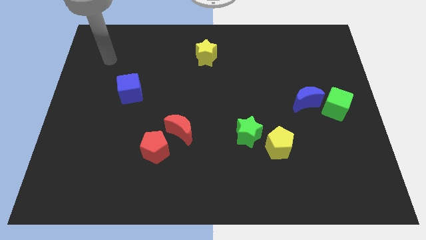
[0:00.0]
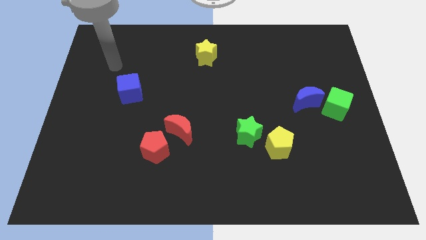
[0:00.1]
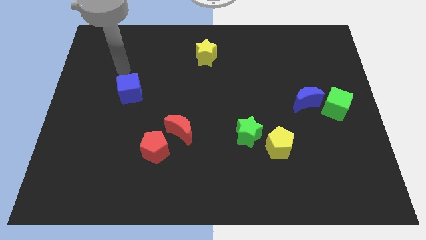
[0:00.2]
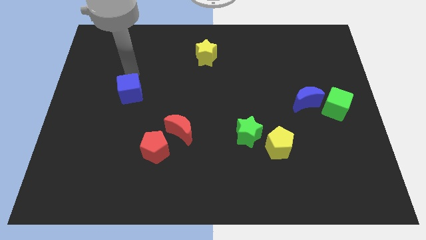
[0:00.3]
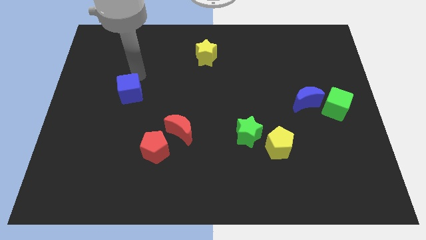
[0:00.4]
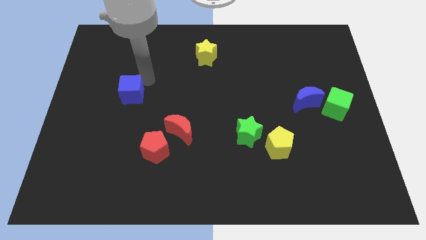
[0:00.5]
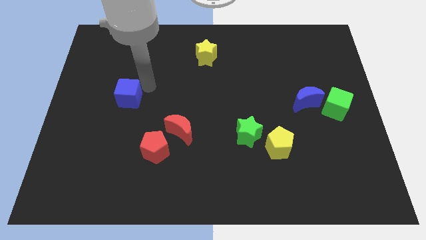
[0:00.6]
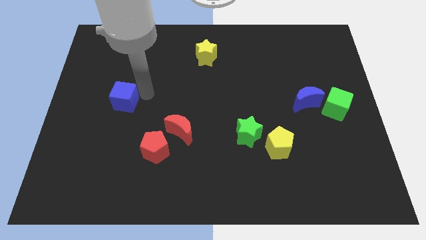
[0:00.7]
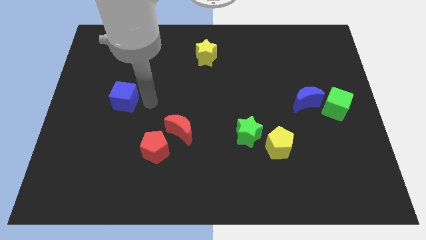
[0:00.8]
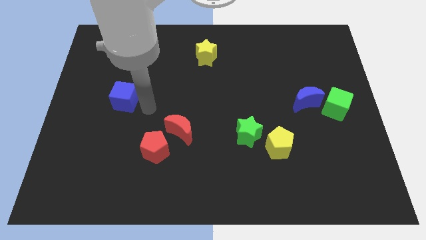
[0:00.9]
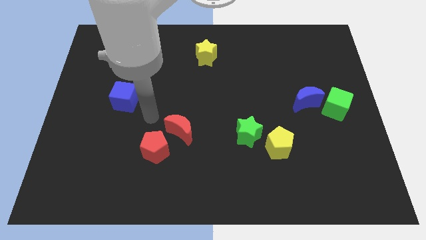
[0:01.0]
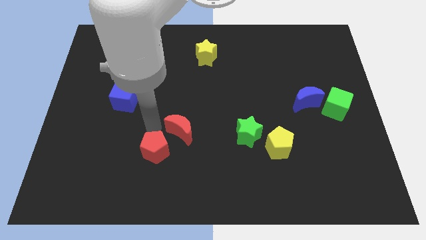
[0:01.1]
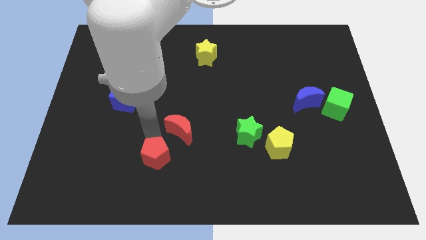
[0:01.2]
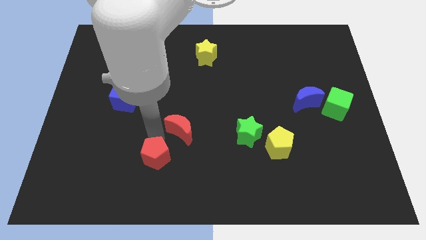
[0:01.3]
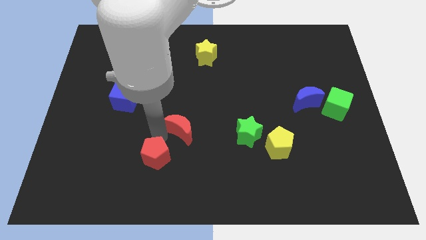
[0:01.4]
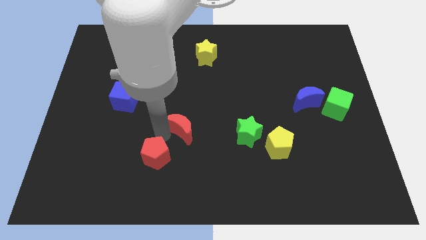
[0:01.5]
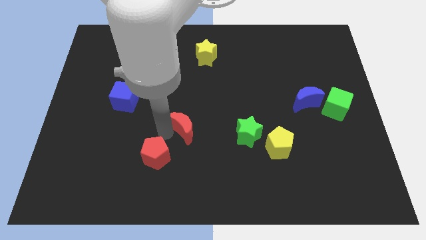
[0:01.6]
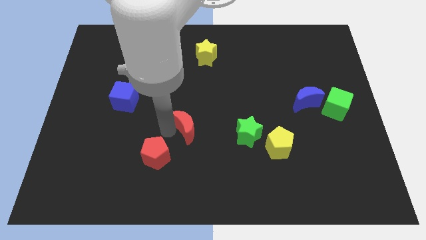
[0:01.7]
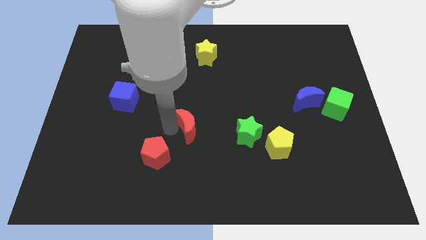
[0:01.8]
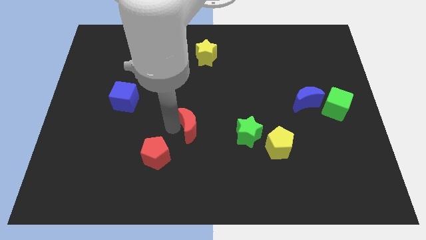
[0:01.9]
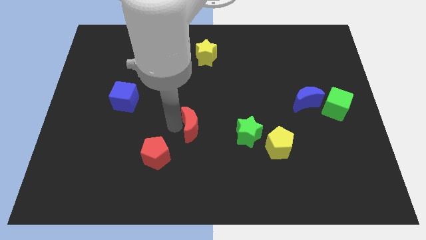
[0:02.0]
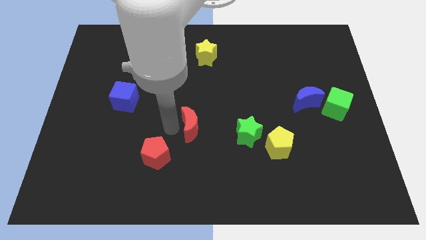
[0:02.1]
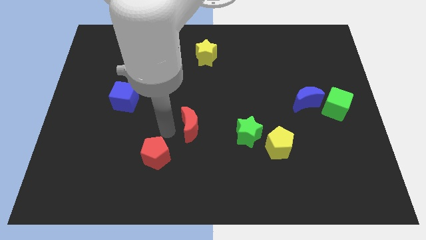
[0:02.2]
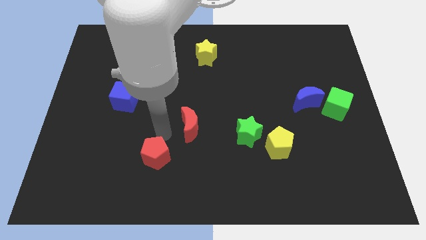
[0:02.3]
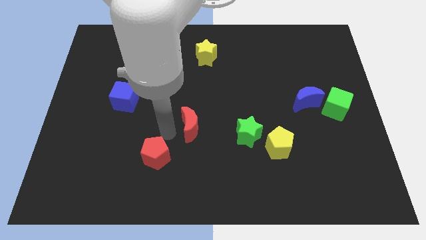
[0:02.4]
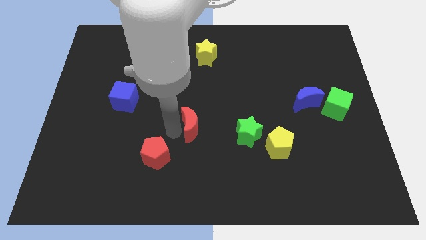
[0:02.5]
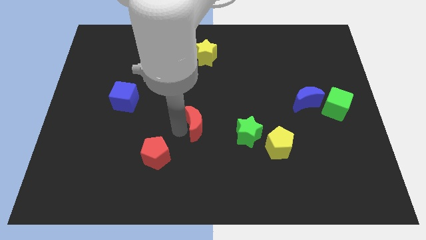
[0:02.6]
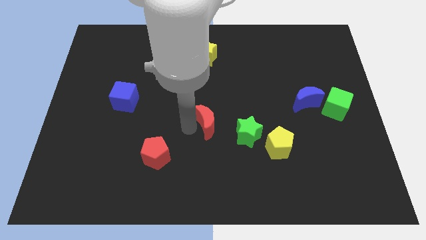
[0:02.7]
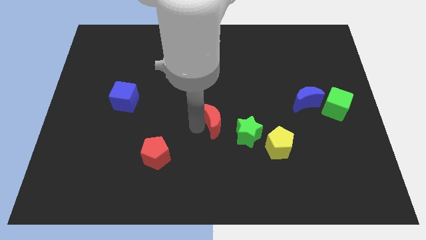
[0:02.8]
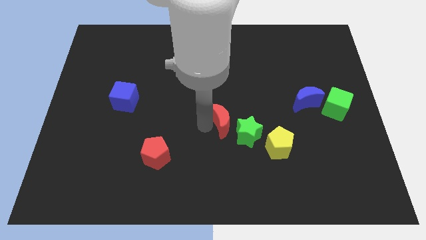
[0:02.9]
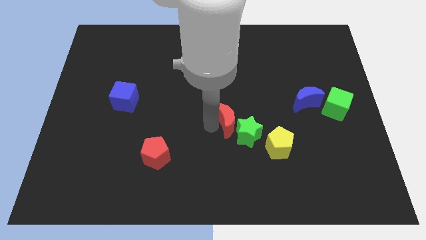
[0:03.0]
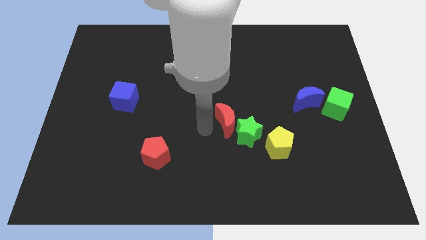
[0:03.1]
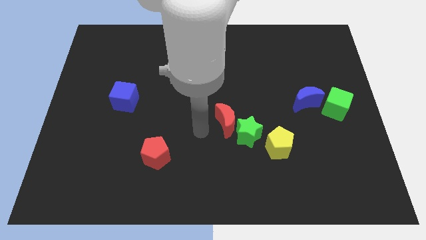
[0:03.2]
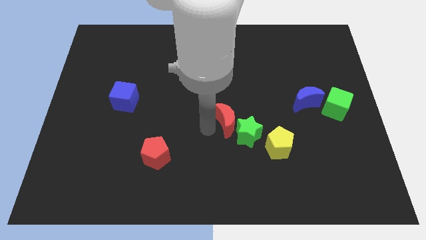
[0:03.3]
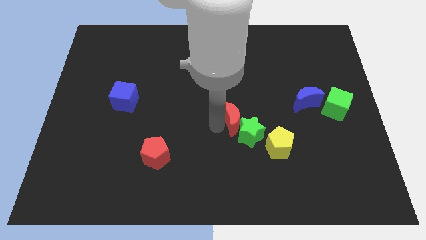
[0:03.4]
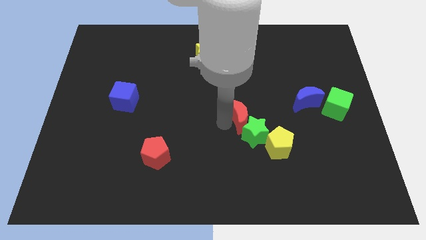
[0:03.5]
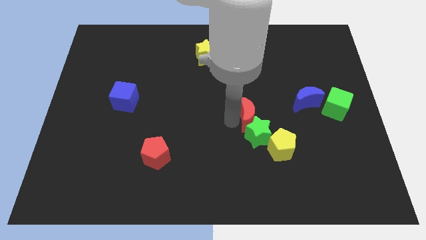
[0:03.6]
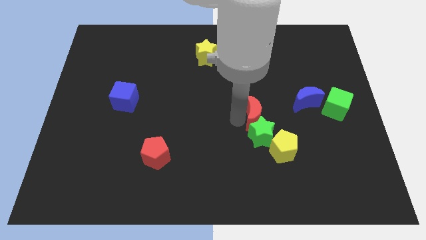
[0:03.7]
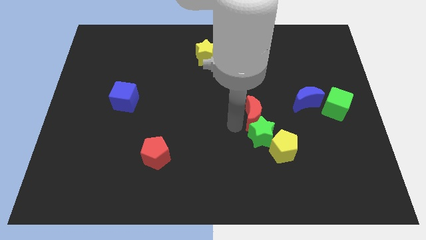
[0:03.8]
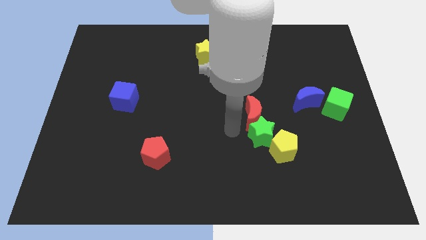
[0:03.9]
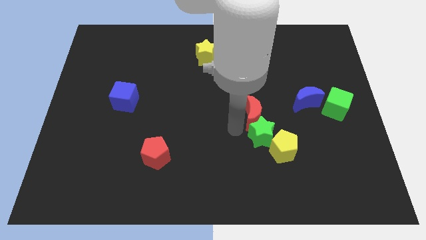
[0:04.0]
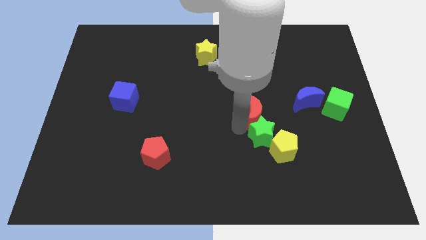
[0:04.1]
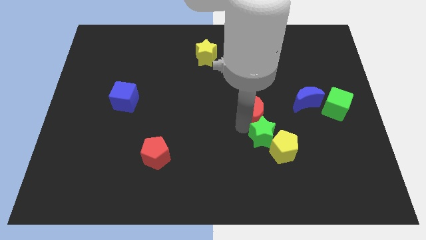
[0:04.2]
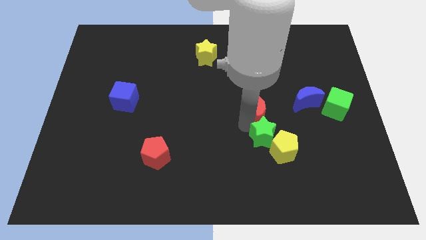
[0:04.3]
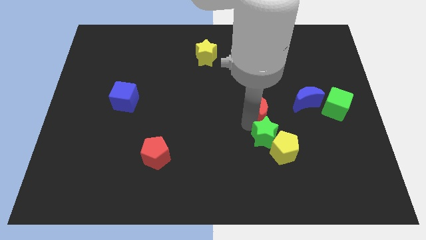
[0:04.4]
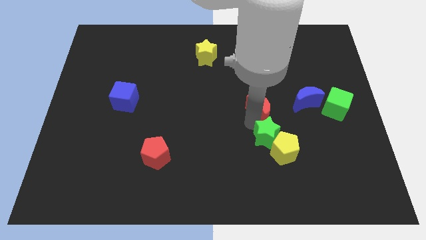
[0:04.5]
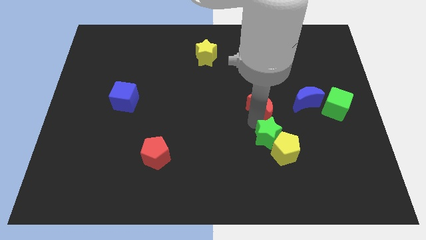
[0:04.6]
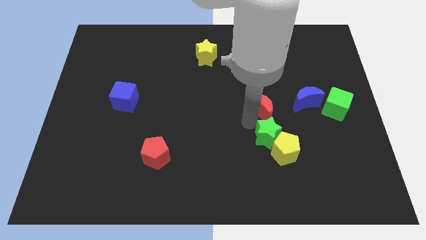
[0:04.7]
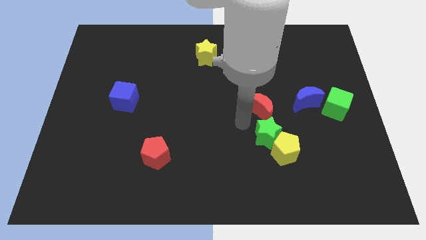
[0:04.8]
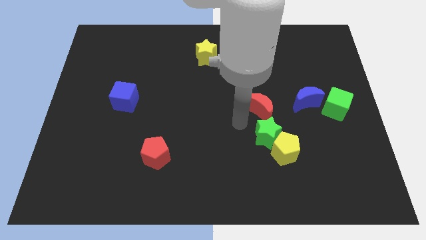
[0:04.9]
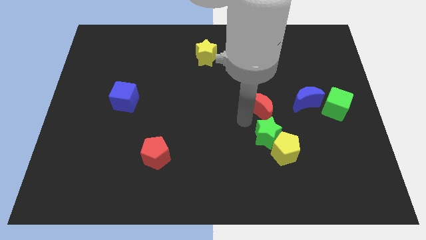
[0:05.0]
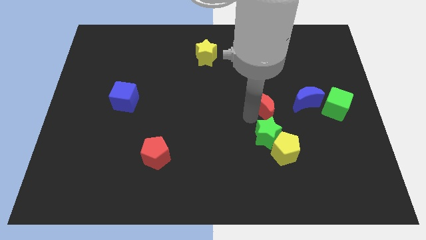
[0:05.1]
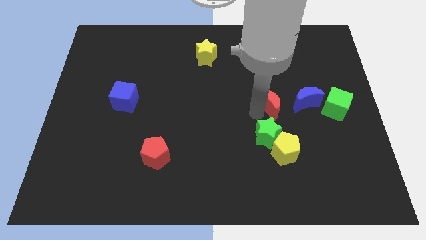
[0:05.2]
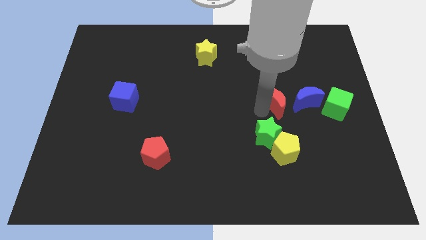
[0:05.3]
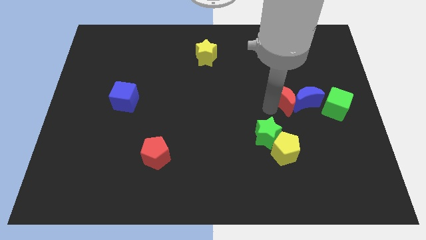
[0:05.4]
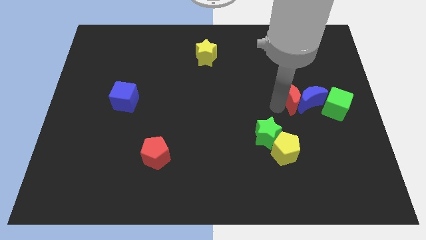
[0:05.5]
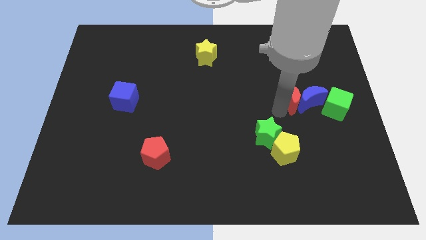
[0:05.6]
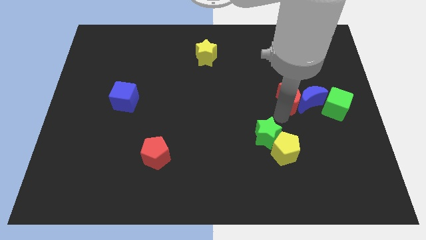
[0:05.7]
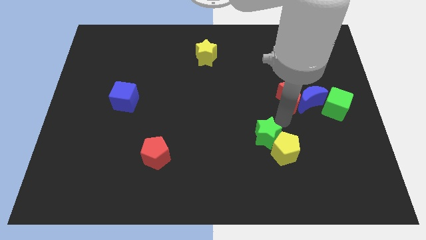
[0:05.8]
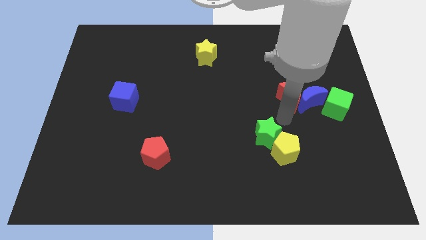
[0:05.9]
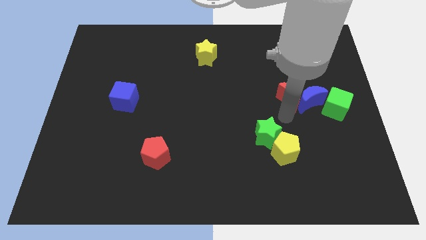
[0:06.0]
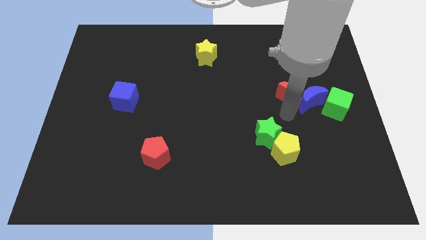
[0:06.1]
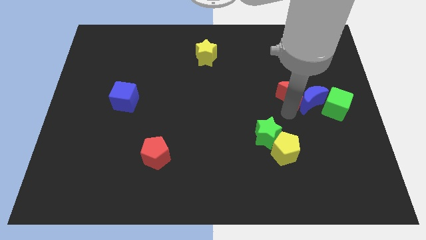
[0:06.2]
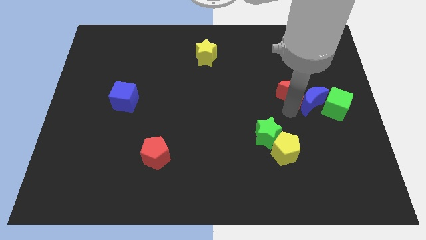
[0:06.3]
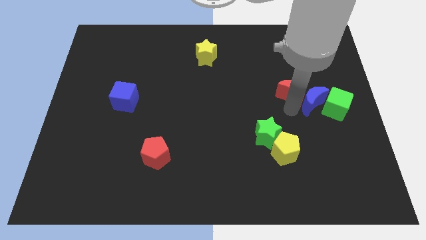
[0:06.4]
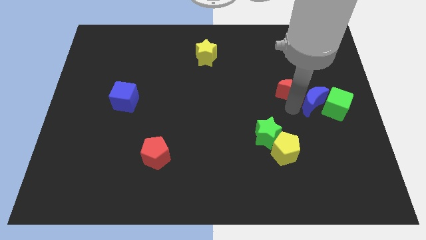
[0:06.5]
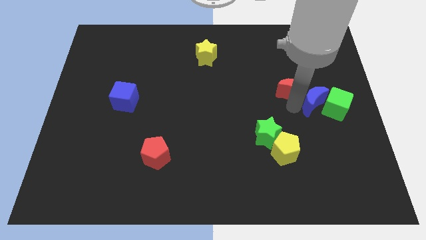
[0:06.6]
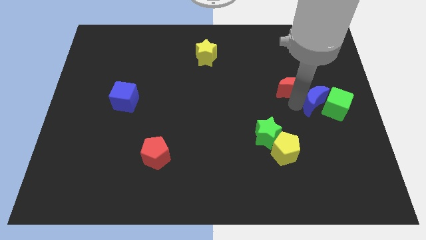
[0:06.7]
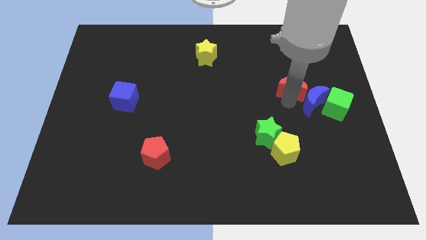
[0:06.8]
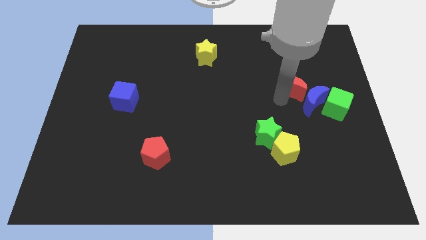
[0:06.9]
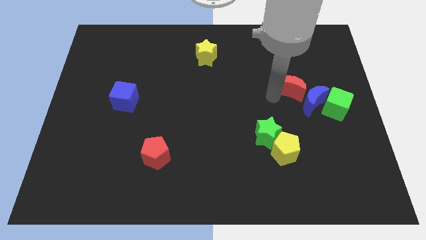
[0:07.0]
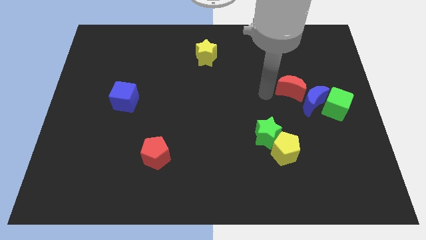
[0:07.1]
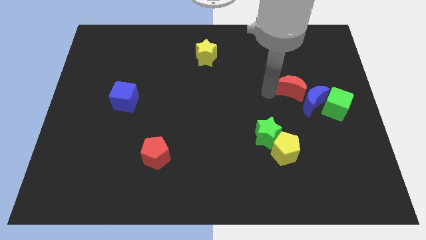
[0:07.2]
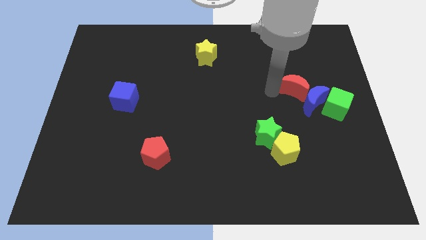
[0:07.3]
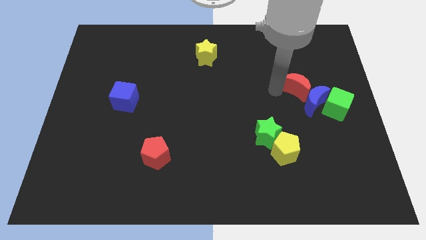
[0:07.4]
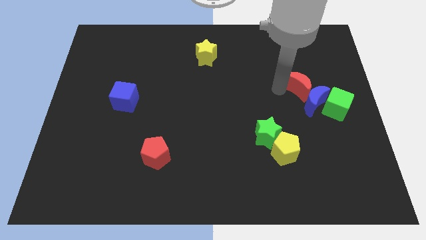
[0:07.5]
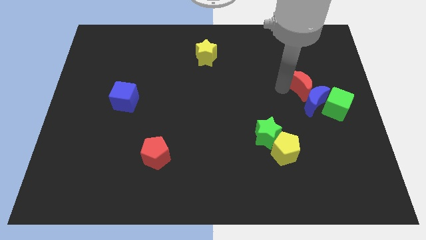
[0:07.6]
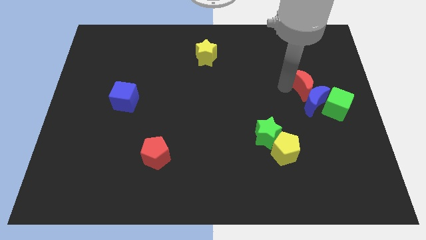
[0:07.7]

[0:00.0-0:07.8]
push the red moon to the top right side of the blue moon
